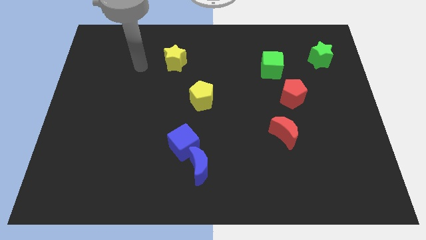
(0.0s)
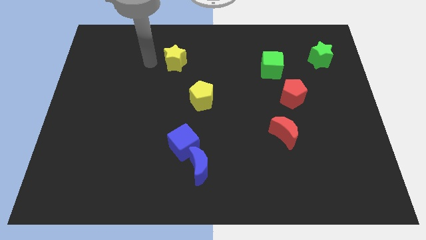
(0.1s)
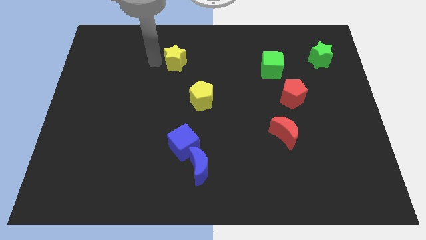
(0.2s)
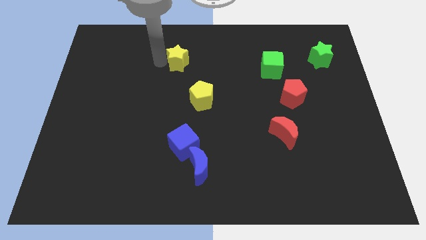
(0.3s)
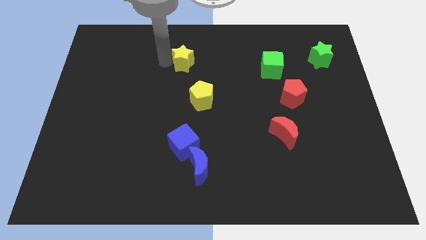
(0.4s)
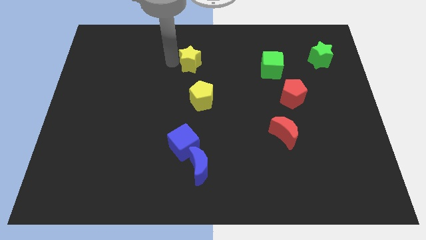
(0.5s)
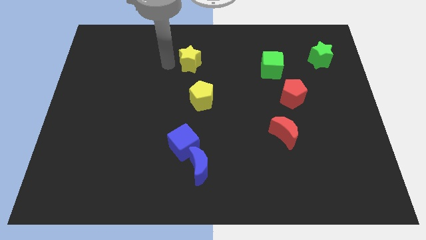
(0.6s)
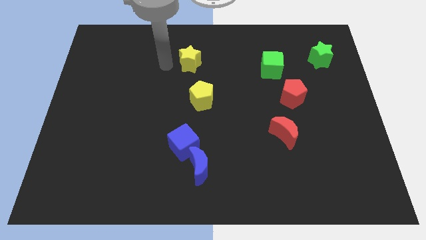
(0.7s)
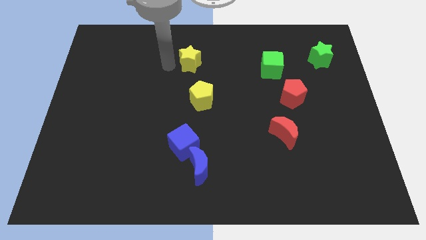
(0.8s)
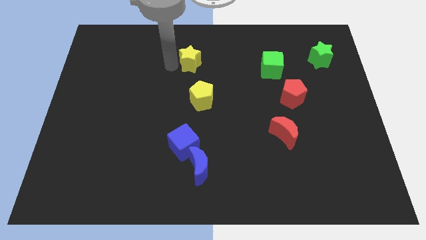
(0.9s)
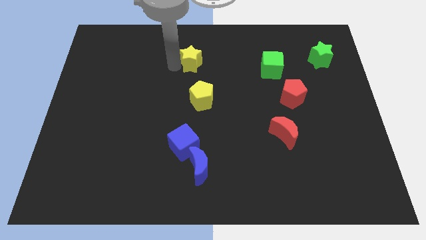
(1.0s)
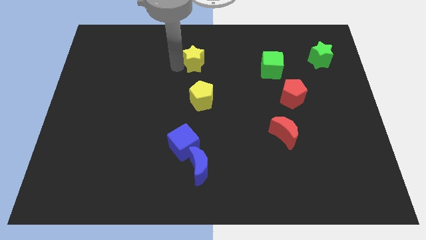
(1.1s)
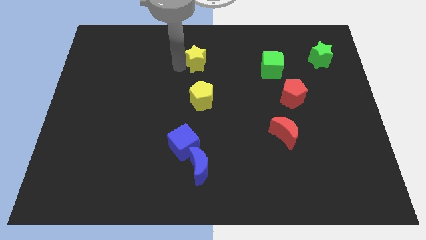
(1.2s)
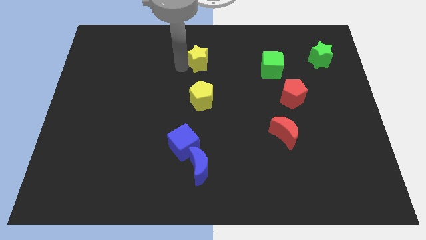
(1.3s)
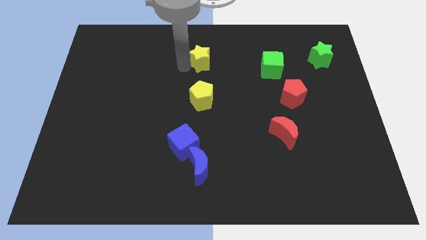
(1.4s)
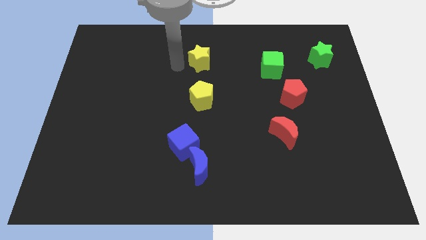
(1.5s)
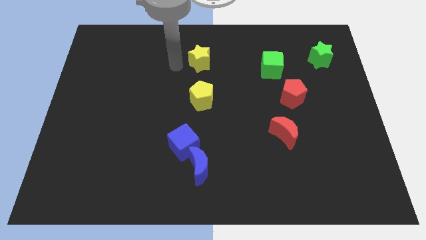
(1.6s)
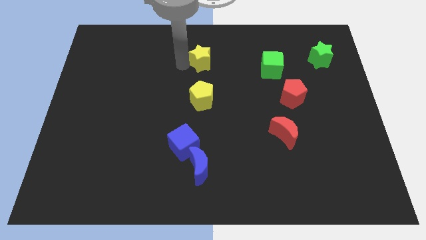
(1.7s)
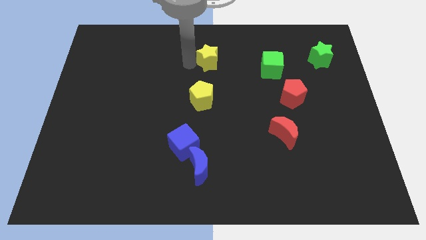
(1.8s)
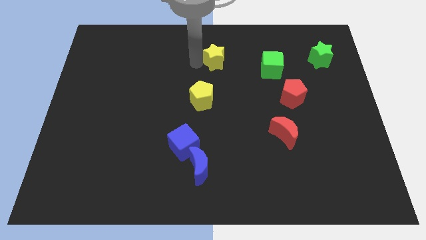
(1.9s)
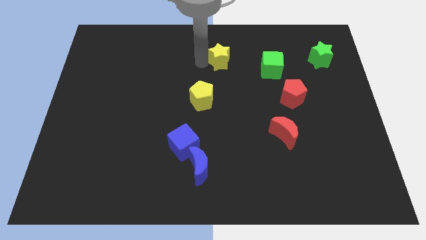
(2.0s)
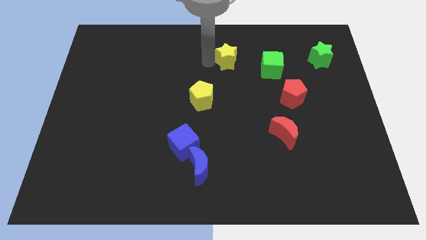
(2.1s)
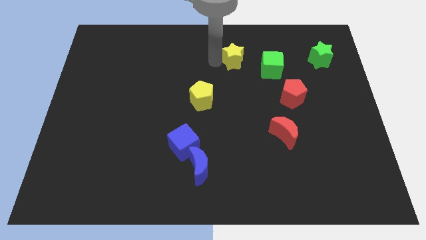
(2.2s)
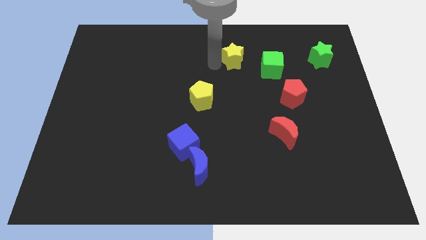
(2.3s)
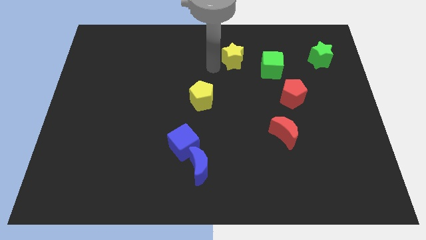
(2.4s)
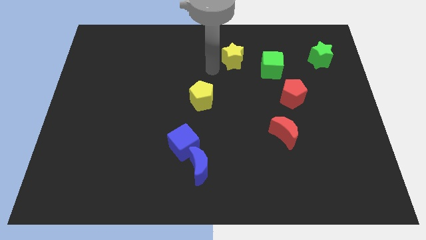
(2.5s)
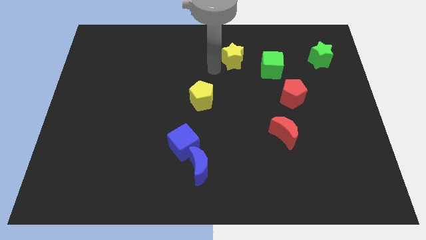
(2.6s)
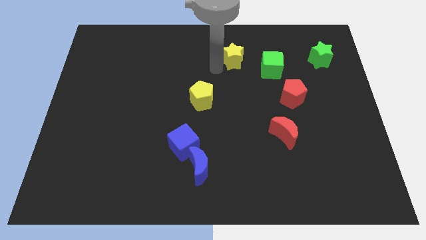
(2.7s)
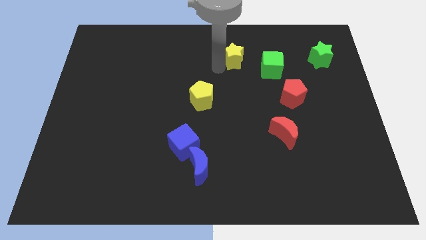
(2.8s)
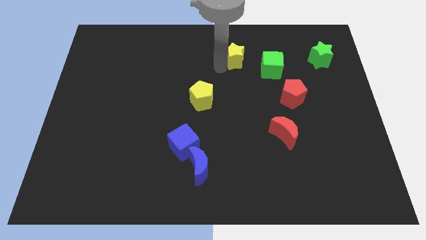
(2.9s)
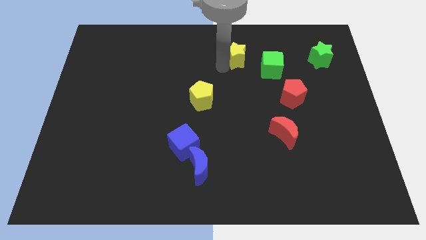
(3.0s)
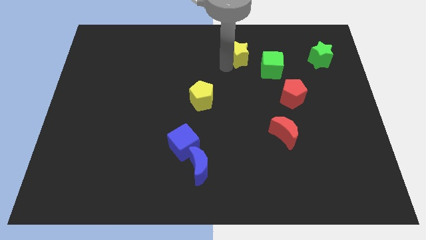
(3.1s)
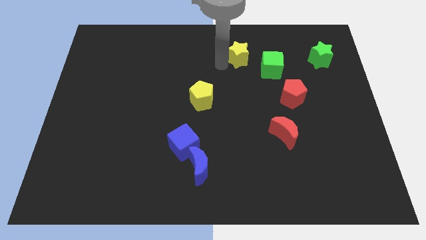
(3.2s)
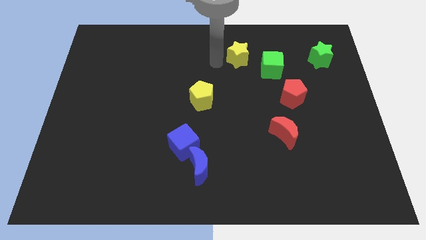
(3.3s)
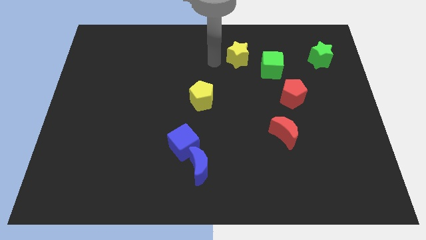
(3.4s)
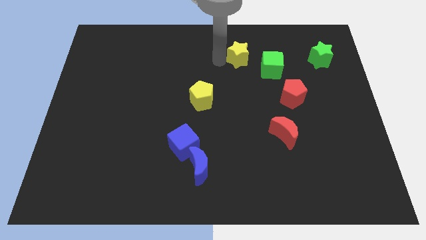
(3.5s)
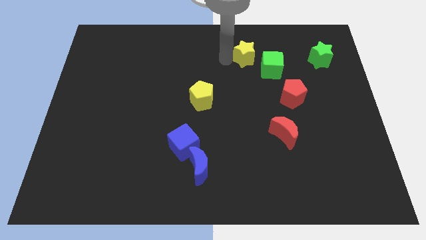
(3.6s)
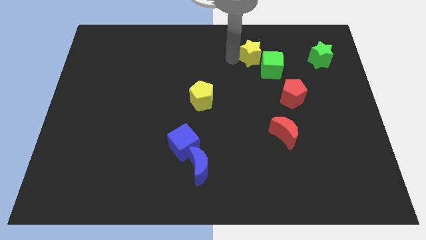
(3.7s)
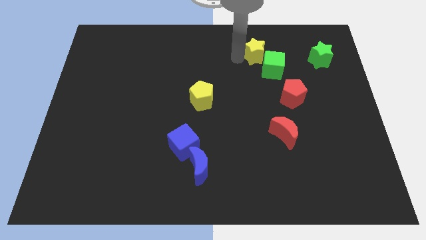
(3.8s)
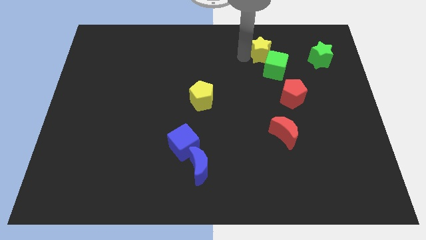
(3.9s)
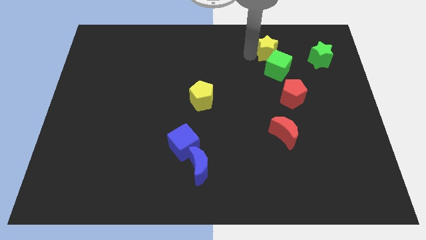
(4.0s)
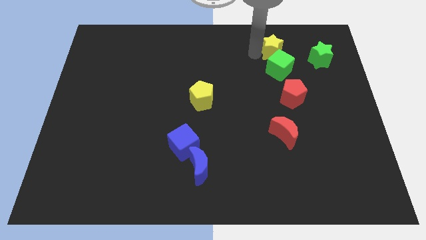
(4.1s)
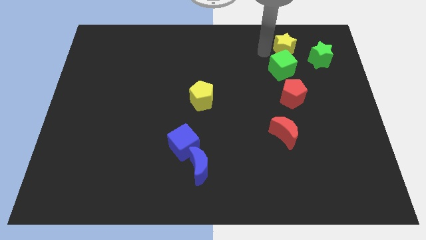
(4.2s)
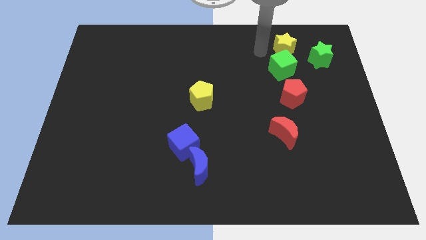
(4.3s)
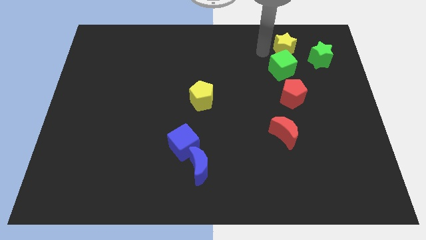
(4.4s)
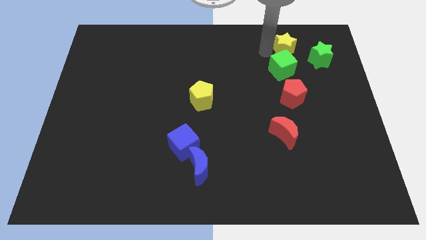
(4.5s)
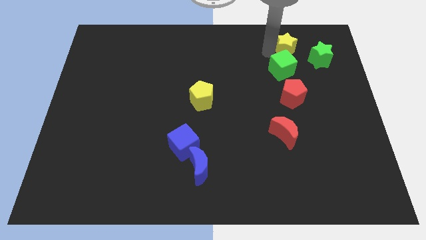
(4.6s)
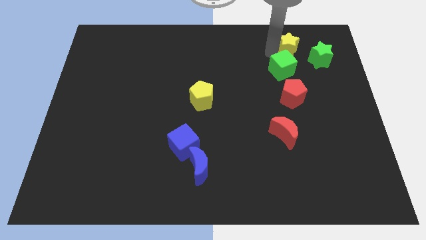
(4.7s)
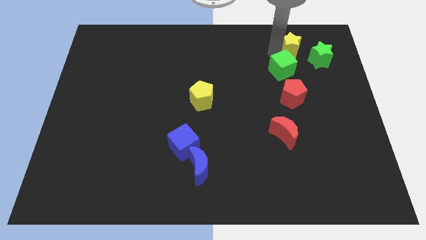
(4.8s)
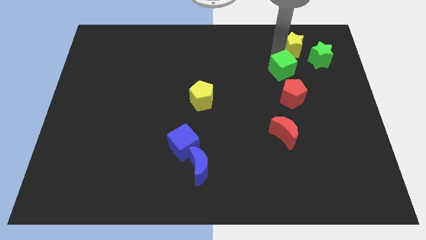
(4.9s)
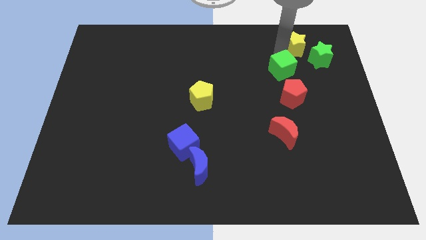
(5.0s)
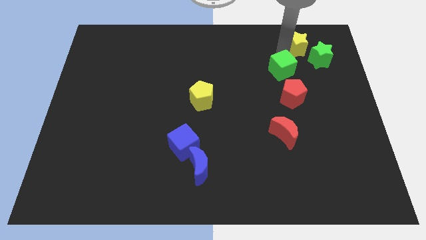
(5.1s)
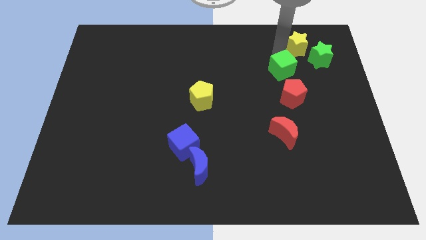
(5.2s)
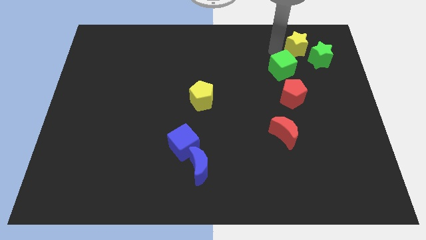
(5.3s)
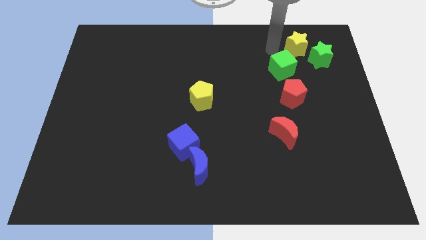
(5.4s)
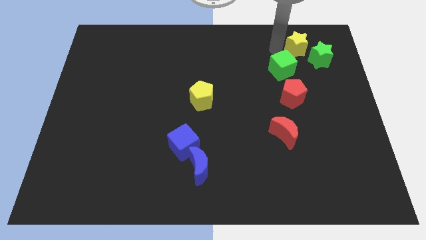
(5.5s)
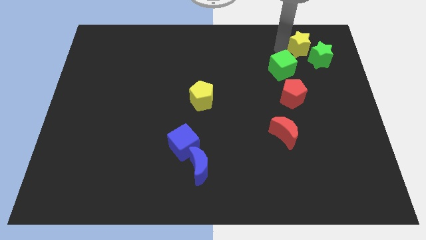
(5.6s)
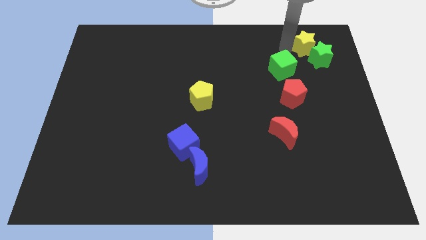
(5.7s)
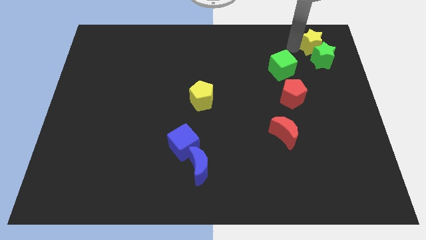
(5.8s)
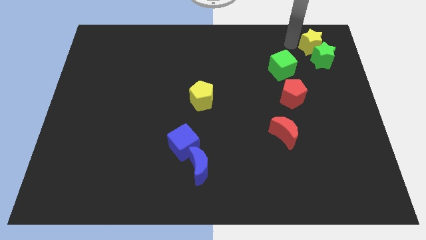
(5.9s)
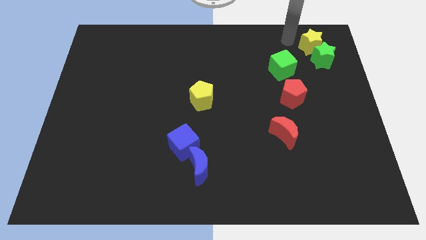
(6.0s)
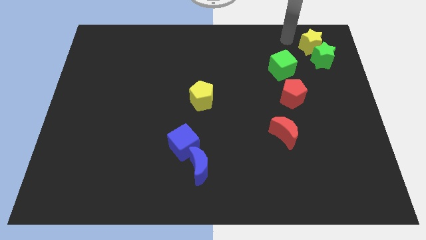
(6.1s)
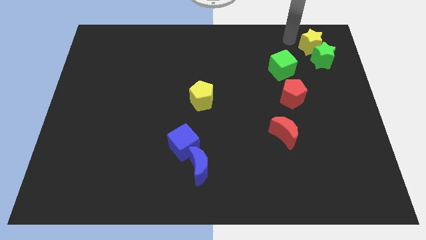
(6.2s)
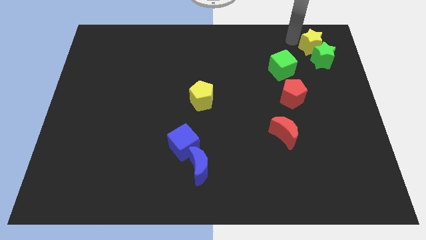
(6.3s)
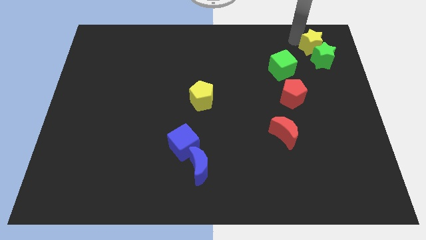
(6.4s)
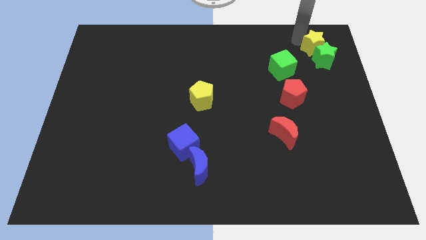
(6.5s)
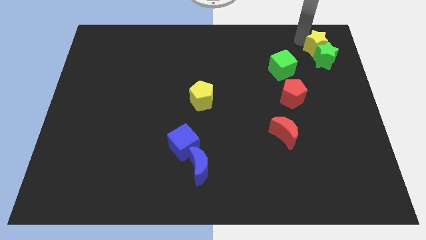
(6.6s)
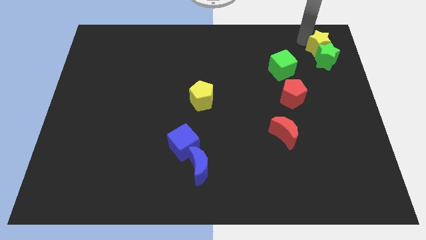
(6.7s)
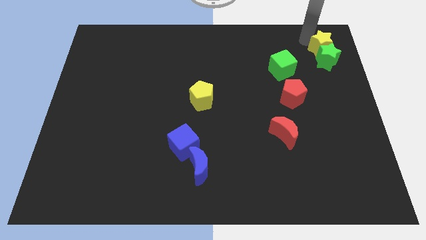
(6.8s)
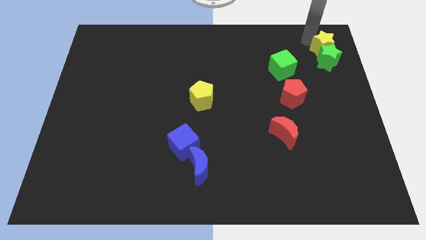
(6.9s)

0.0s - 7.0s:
put the yellow star to the top right
